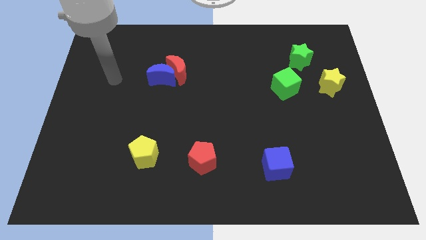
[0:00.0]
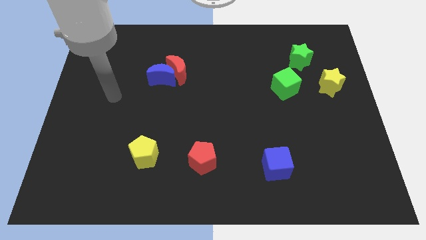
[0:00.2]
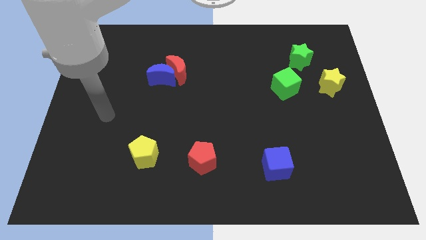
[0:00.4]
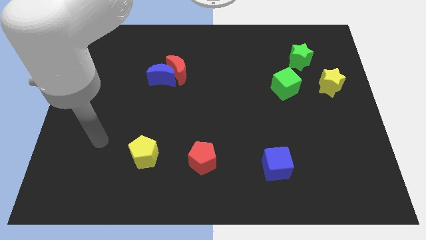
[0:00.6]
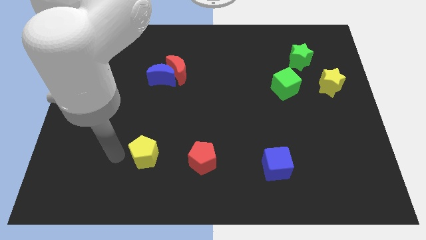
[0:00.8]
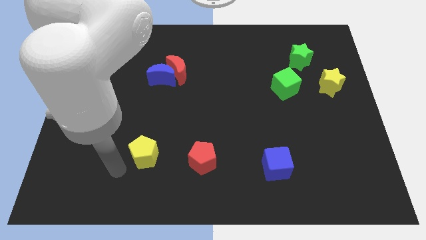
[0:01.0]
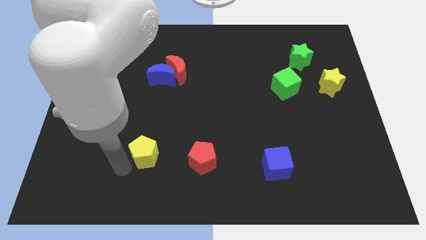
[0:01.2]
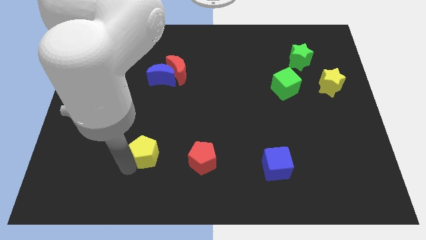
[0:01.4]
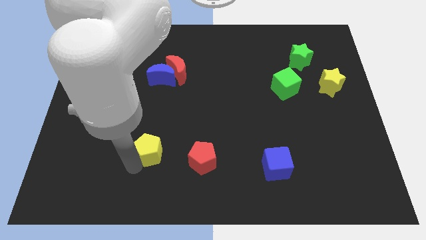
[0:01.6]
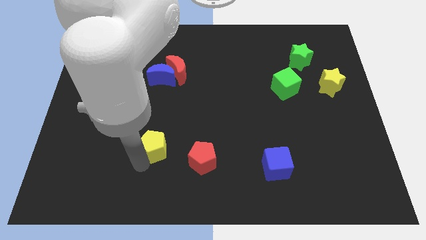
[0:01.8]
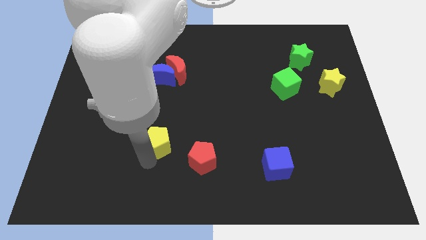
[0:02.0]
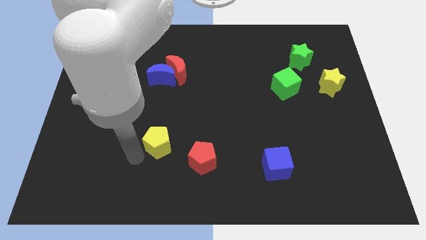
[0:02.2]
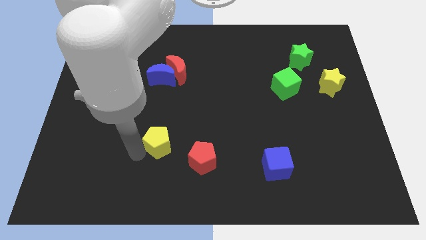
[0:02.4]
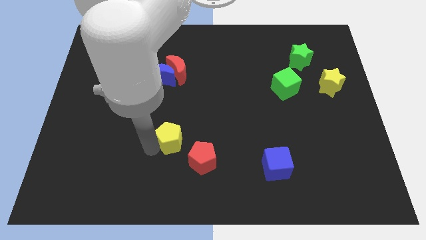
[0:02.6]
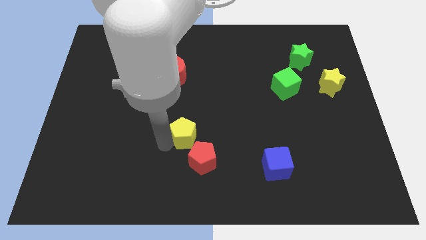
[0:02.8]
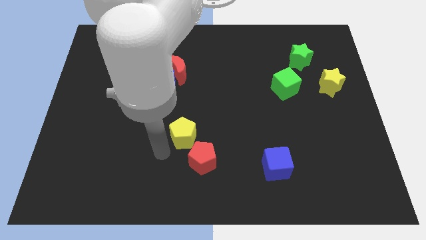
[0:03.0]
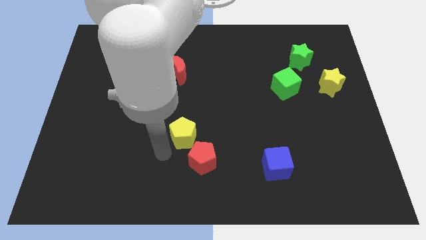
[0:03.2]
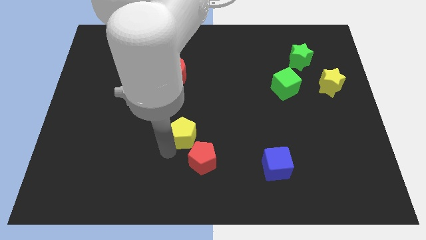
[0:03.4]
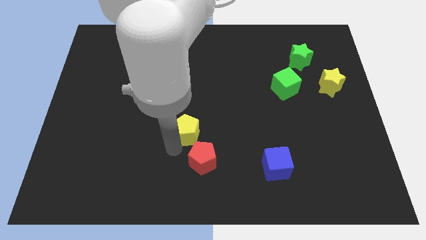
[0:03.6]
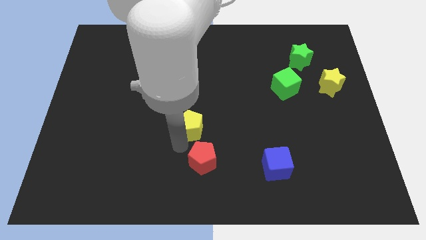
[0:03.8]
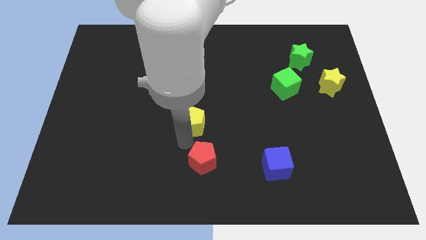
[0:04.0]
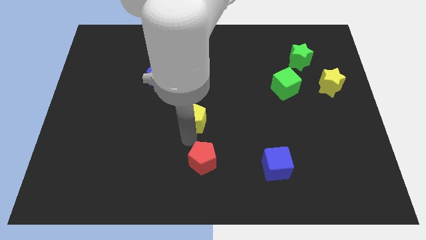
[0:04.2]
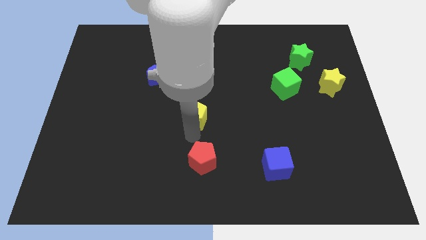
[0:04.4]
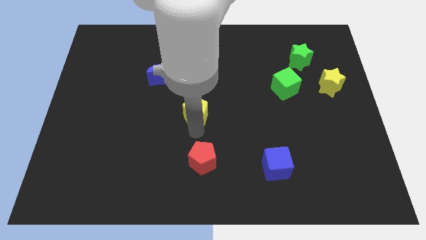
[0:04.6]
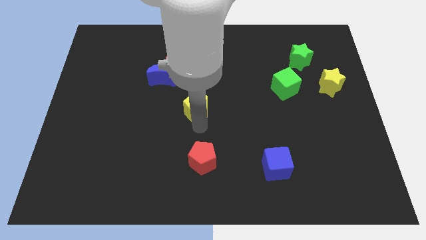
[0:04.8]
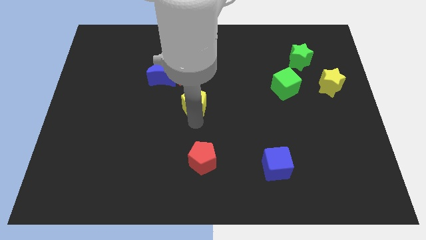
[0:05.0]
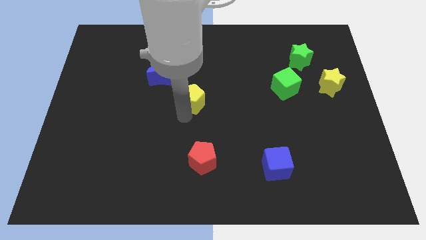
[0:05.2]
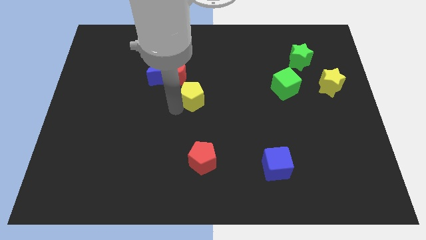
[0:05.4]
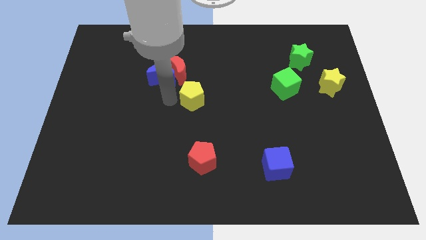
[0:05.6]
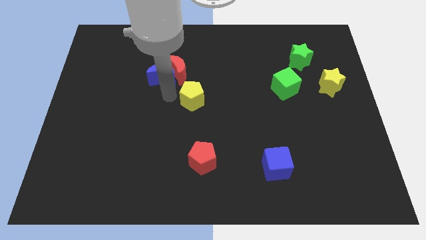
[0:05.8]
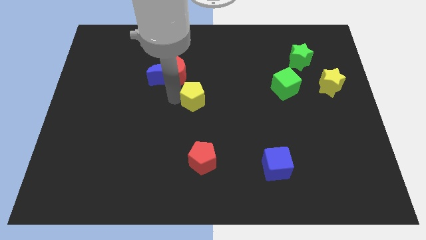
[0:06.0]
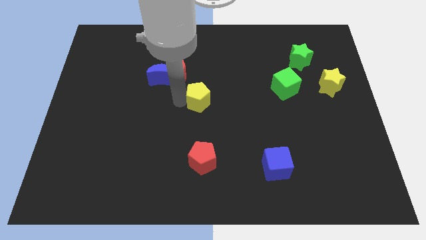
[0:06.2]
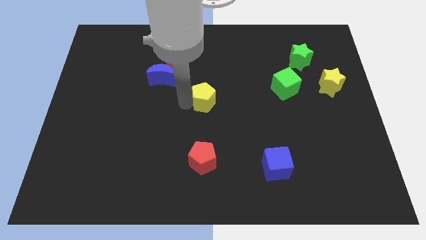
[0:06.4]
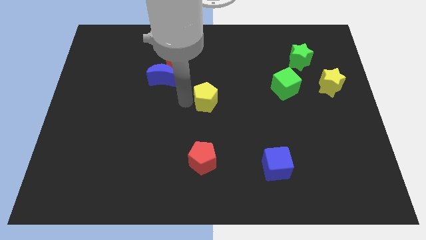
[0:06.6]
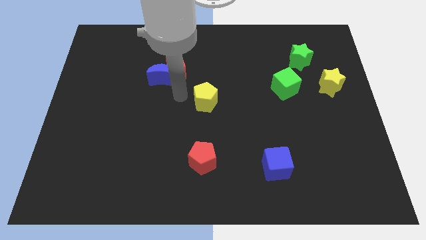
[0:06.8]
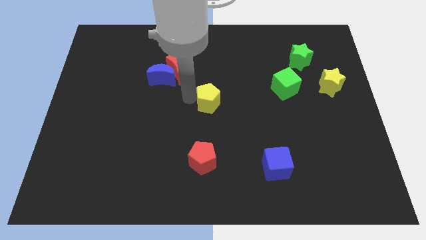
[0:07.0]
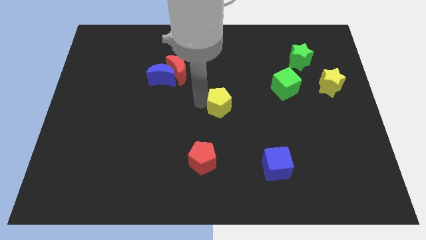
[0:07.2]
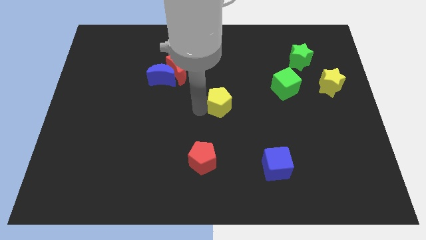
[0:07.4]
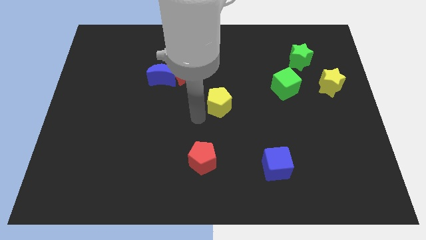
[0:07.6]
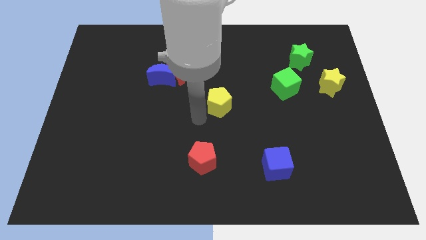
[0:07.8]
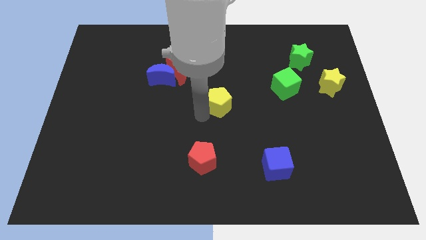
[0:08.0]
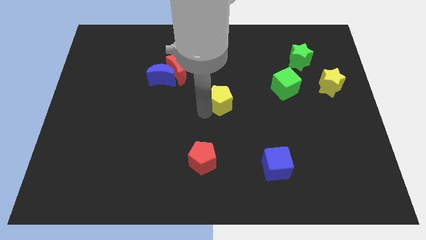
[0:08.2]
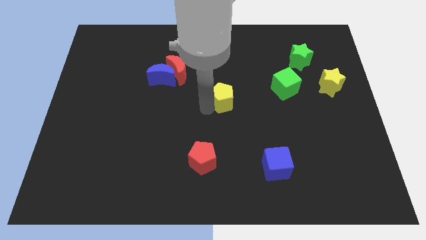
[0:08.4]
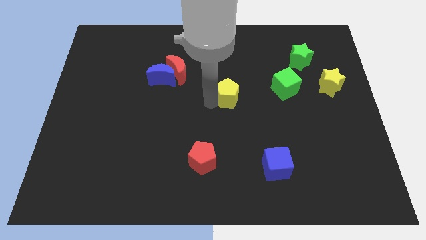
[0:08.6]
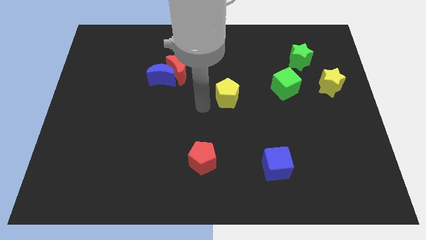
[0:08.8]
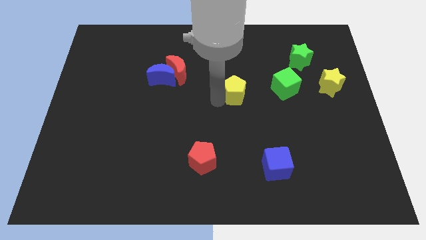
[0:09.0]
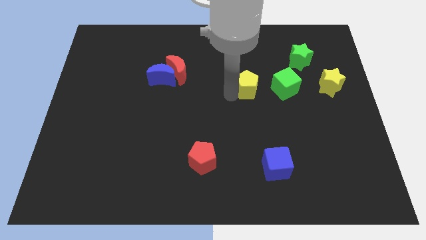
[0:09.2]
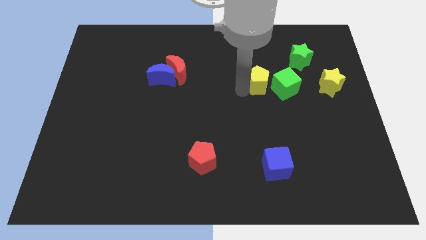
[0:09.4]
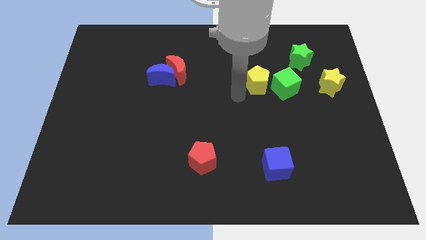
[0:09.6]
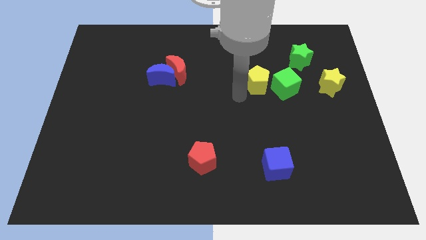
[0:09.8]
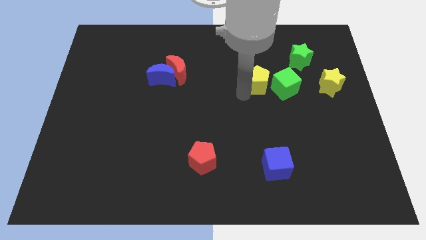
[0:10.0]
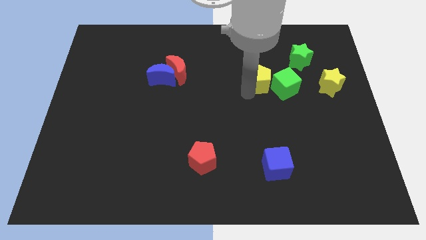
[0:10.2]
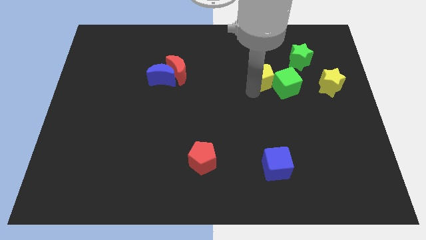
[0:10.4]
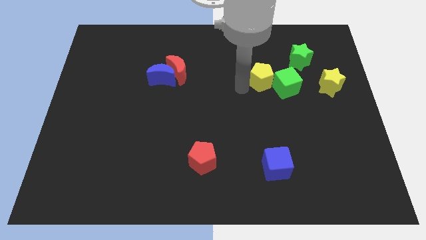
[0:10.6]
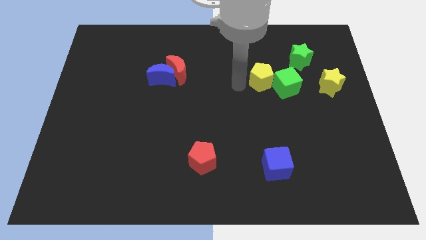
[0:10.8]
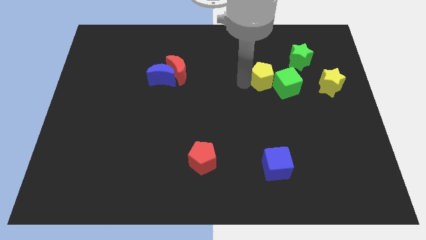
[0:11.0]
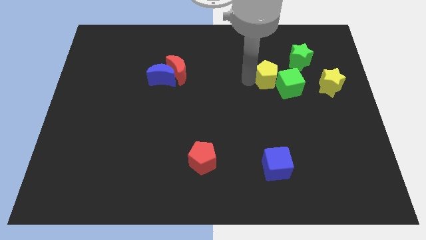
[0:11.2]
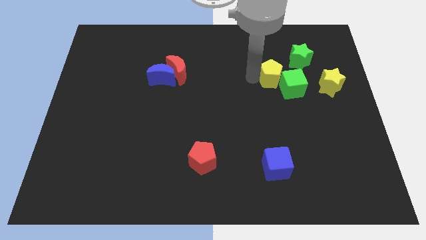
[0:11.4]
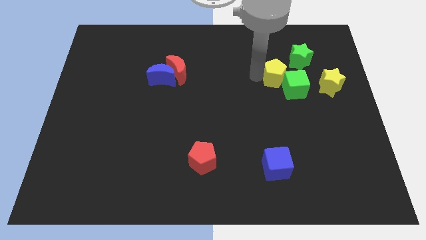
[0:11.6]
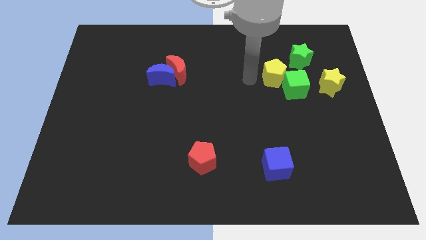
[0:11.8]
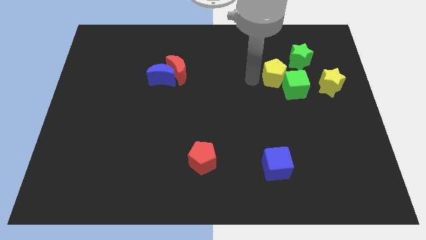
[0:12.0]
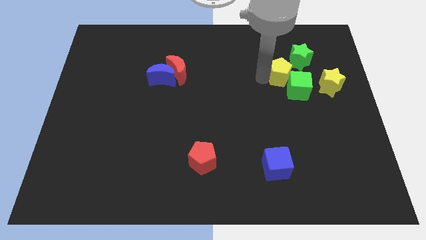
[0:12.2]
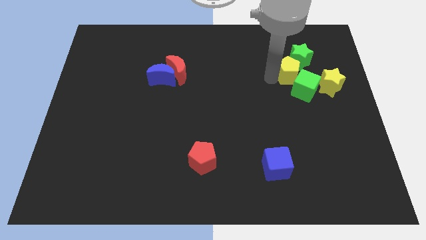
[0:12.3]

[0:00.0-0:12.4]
slide the yellow pentagon next to the green star
